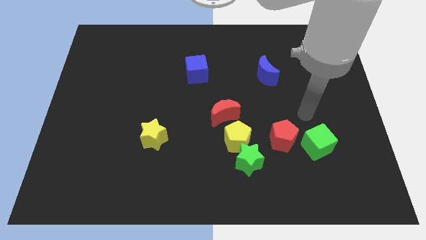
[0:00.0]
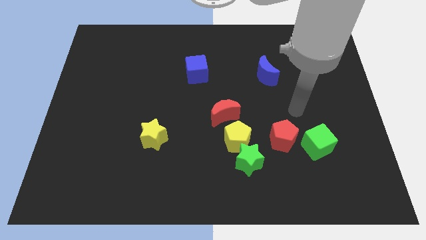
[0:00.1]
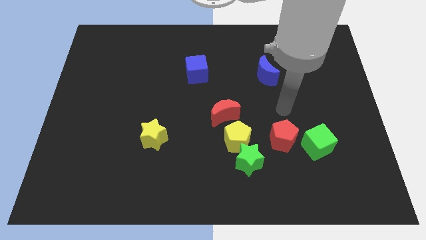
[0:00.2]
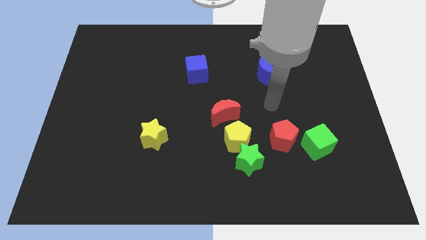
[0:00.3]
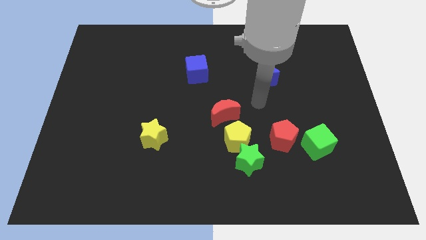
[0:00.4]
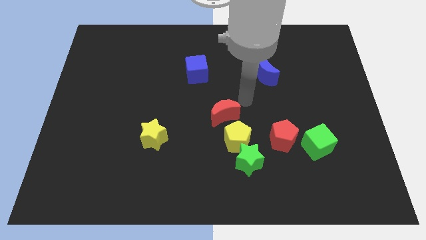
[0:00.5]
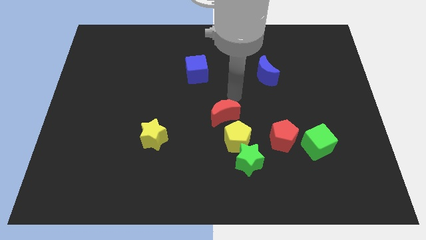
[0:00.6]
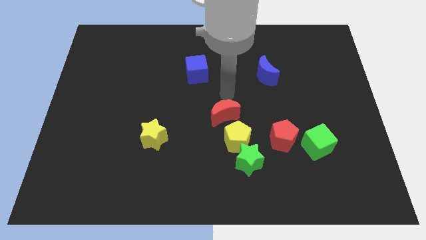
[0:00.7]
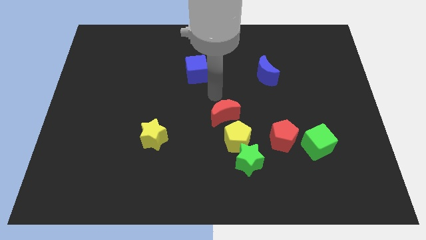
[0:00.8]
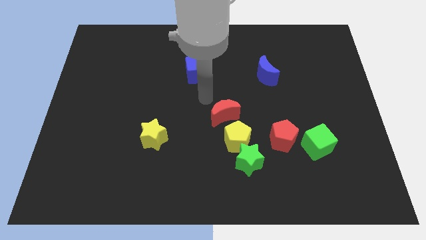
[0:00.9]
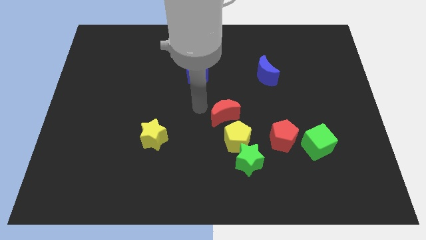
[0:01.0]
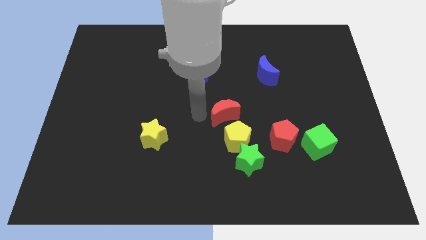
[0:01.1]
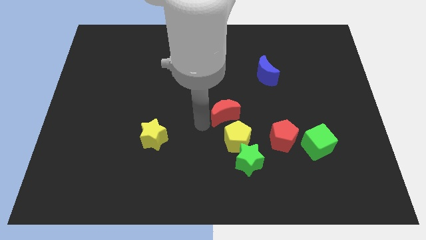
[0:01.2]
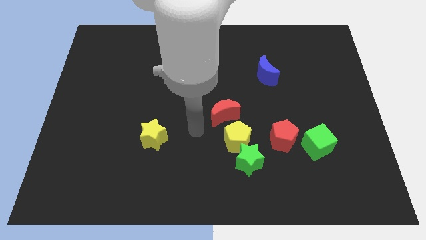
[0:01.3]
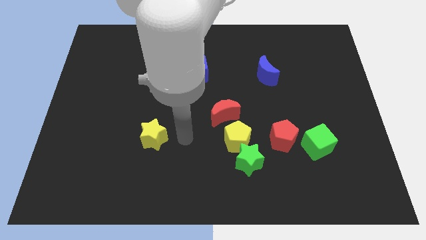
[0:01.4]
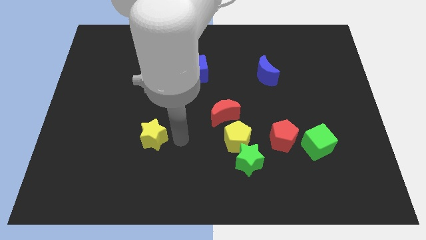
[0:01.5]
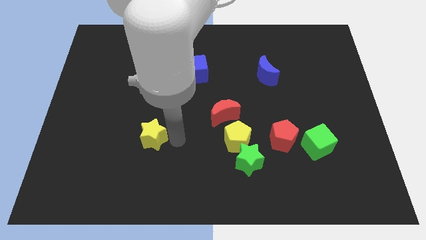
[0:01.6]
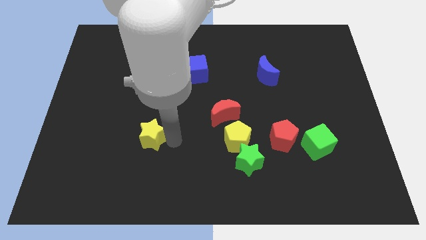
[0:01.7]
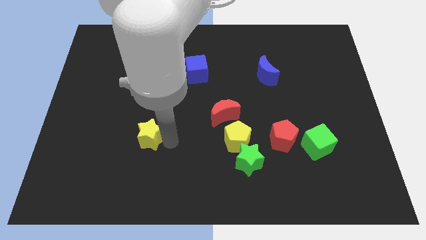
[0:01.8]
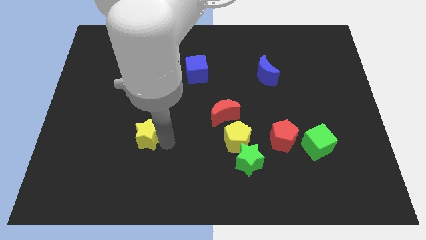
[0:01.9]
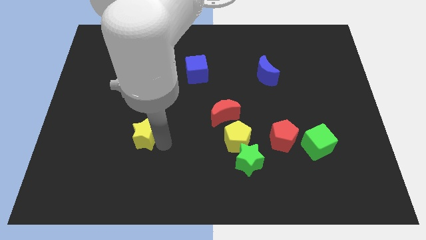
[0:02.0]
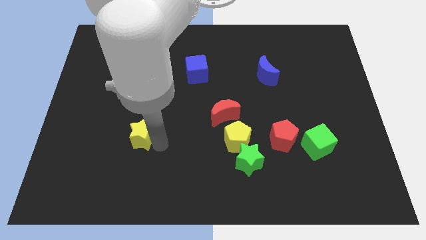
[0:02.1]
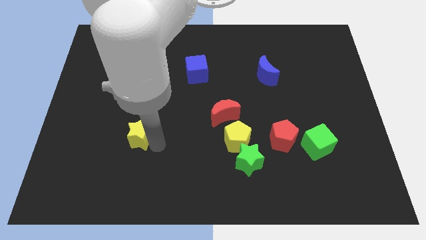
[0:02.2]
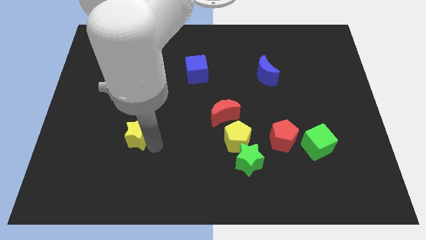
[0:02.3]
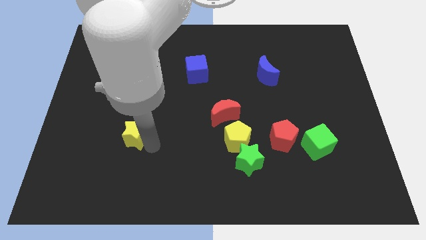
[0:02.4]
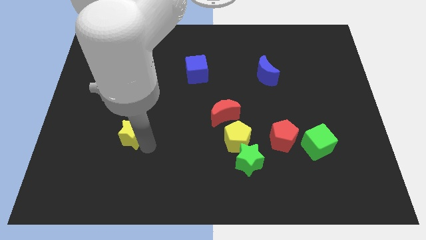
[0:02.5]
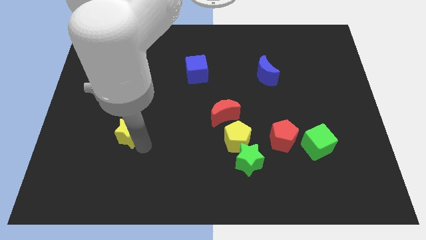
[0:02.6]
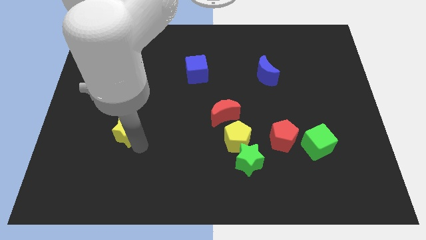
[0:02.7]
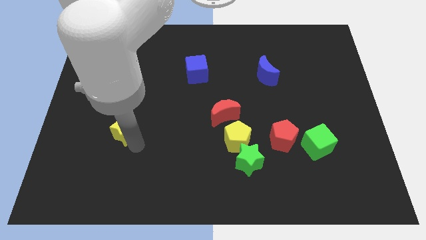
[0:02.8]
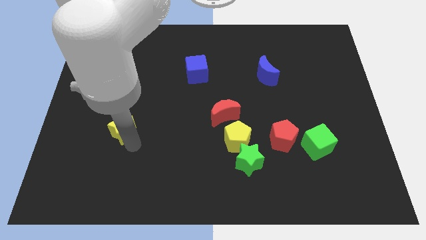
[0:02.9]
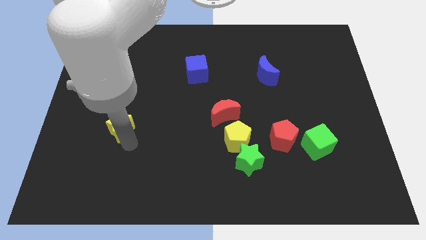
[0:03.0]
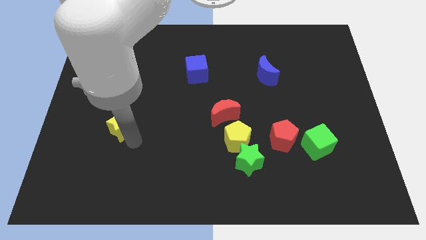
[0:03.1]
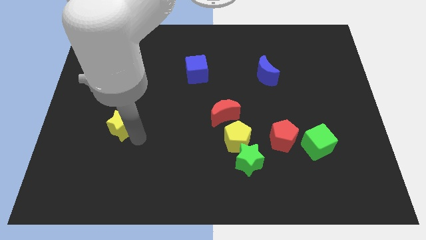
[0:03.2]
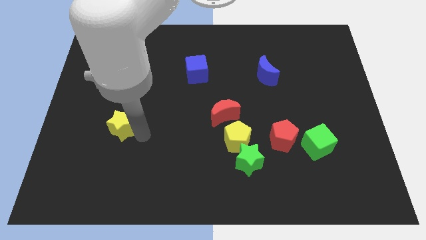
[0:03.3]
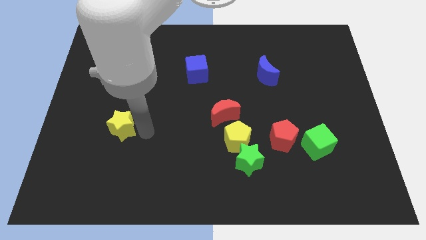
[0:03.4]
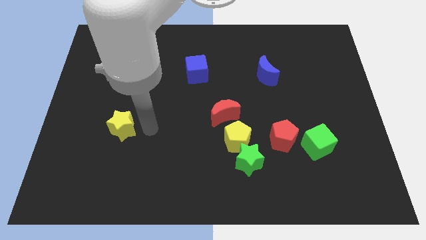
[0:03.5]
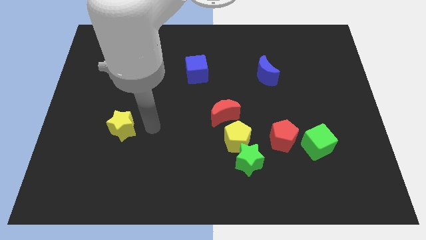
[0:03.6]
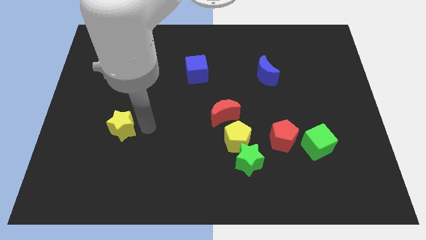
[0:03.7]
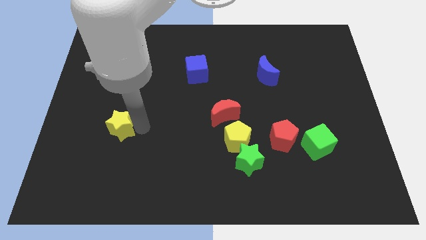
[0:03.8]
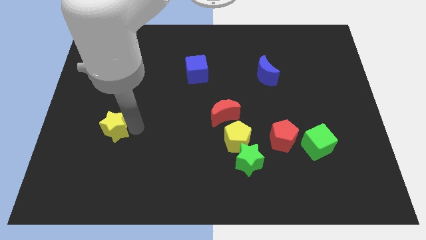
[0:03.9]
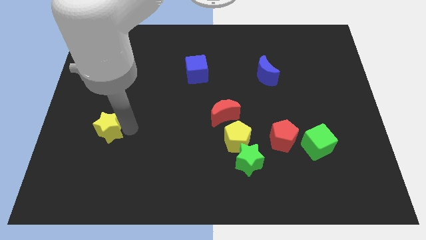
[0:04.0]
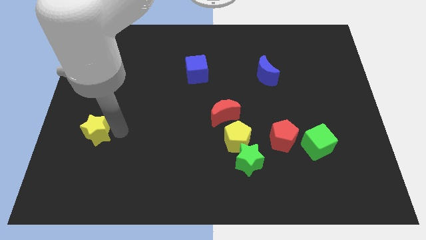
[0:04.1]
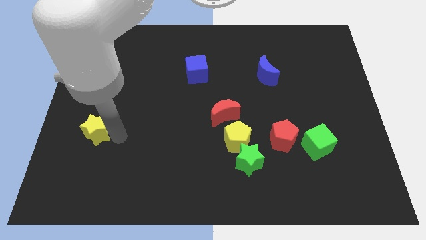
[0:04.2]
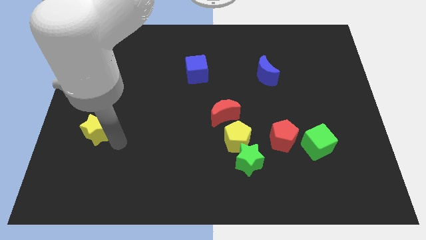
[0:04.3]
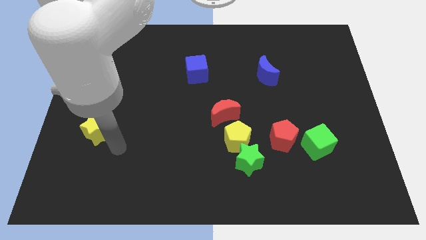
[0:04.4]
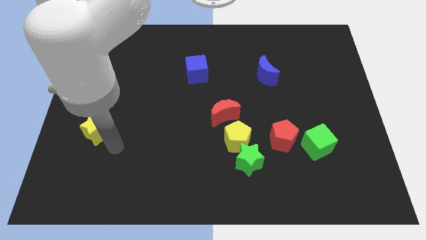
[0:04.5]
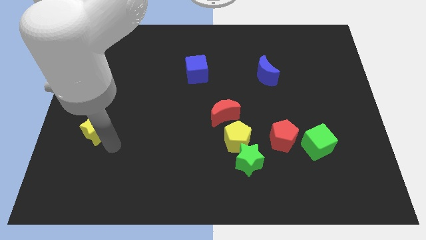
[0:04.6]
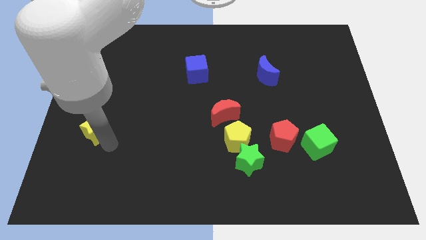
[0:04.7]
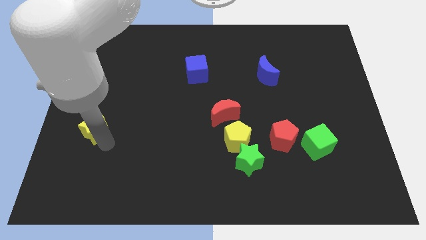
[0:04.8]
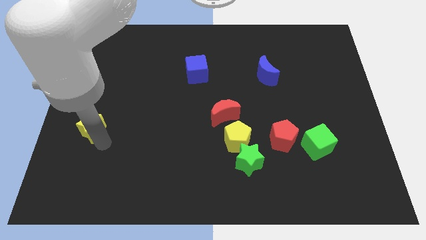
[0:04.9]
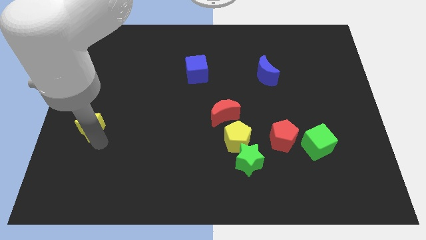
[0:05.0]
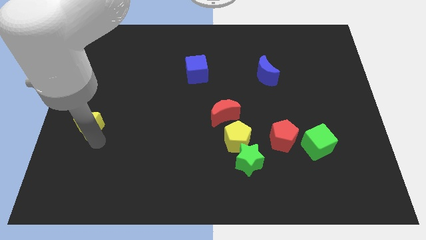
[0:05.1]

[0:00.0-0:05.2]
move the yellow star to the center left

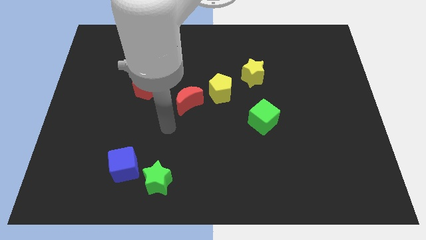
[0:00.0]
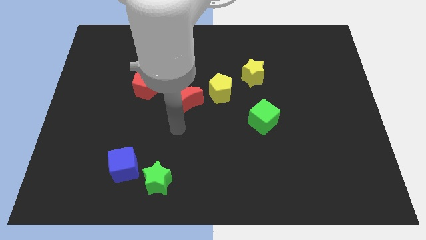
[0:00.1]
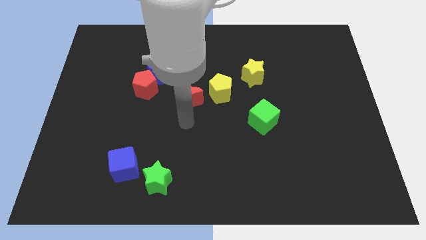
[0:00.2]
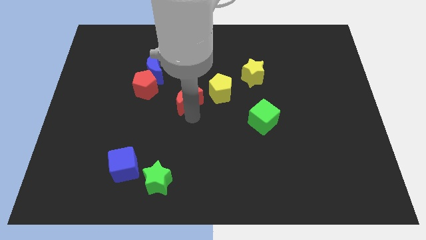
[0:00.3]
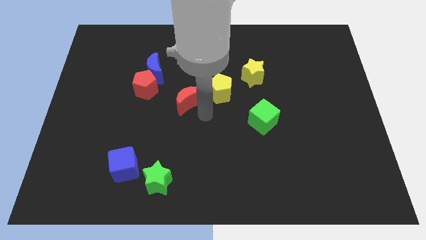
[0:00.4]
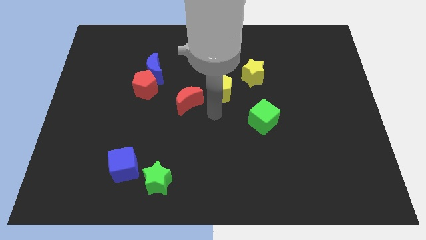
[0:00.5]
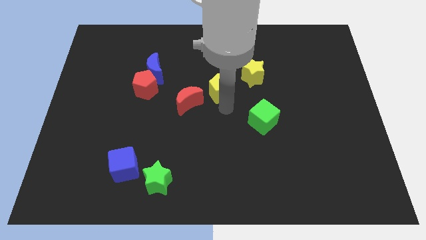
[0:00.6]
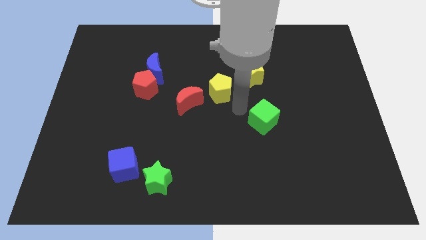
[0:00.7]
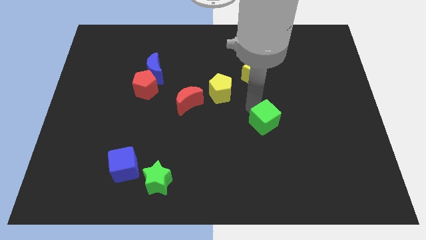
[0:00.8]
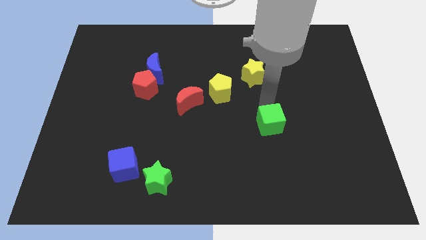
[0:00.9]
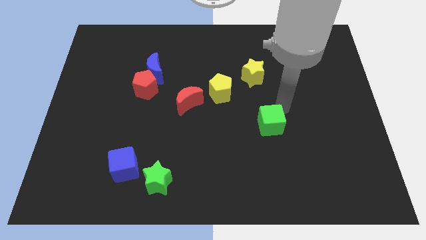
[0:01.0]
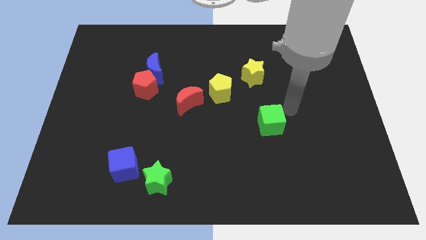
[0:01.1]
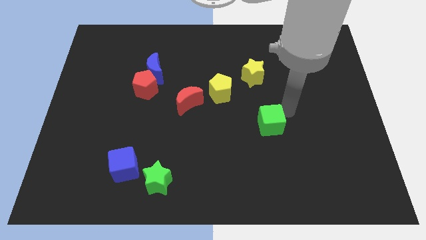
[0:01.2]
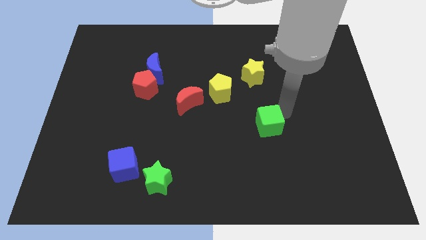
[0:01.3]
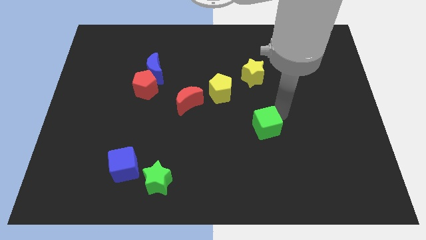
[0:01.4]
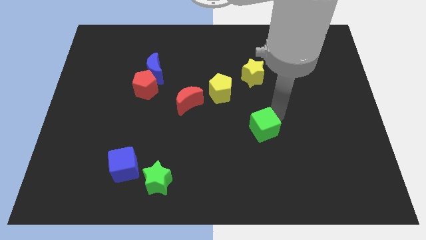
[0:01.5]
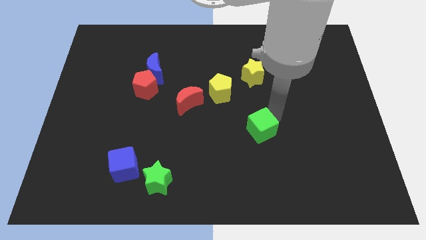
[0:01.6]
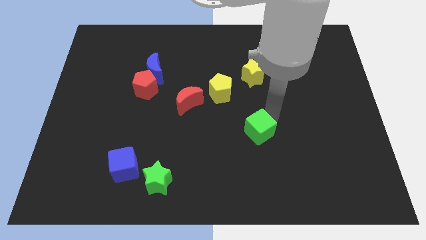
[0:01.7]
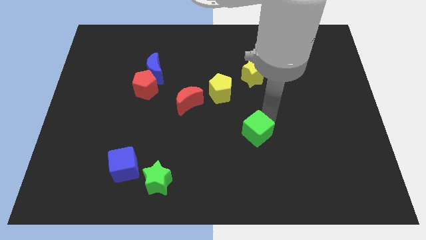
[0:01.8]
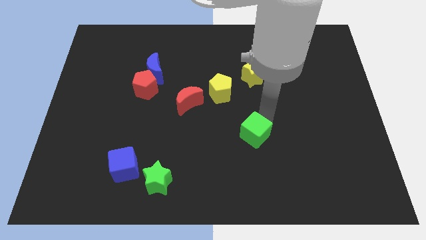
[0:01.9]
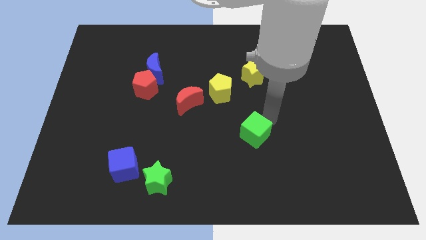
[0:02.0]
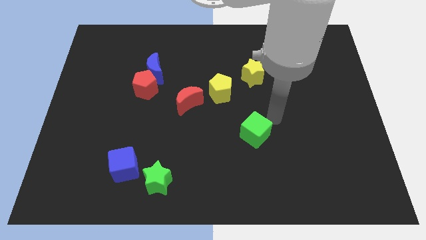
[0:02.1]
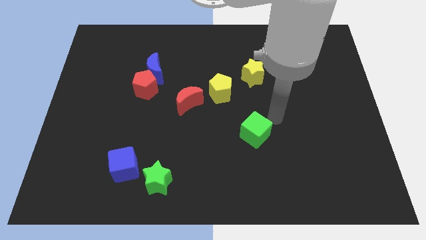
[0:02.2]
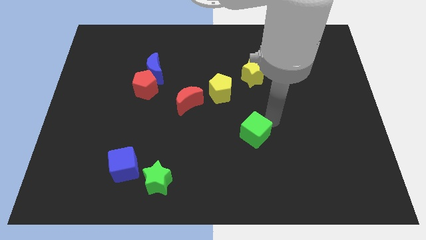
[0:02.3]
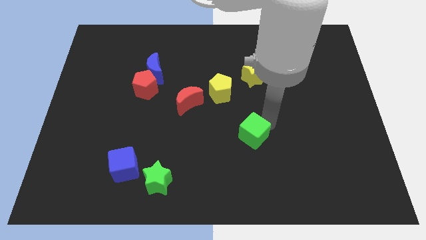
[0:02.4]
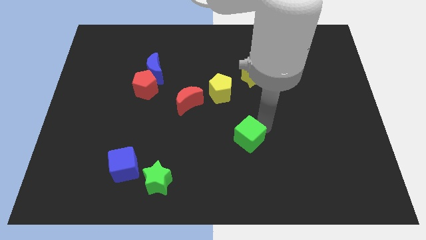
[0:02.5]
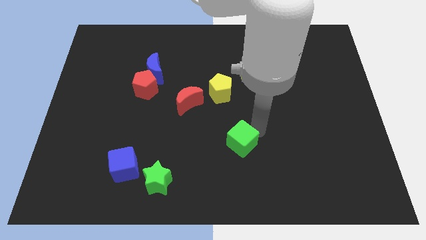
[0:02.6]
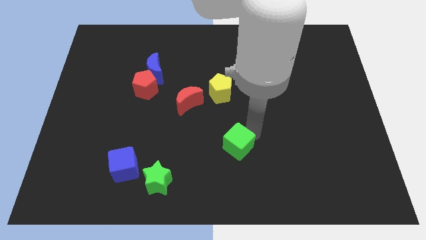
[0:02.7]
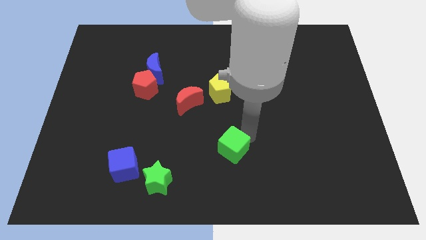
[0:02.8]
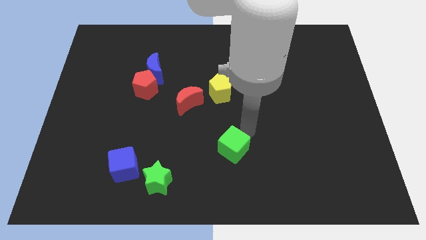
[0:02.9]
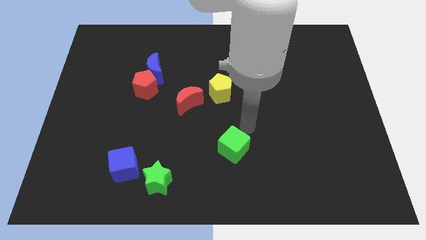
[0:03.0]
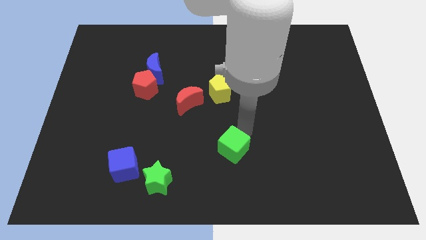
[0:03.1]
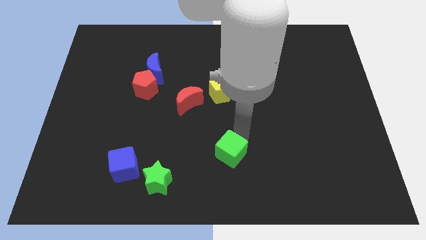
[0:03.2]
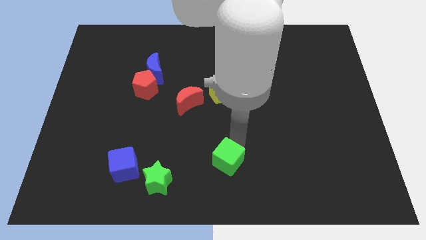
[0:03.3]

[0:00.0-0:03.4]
move the green cube to the bottom
